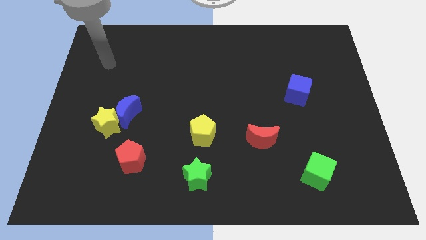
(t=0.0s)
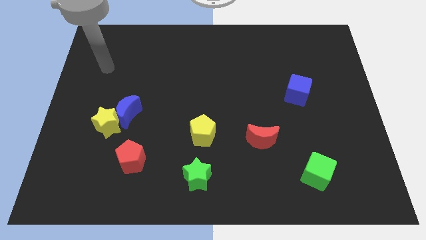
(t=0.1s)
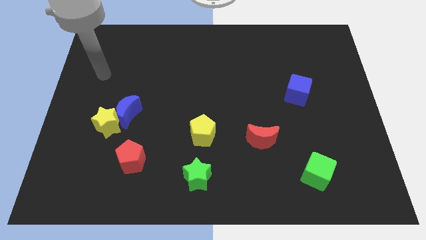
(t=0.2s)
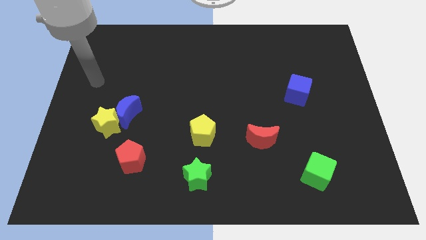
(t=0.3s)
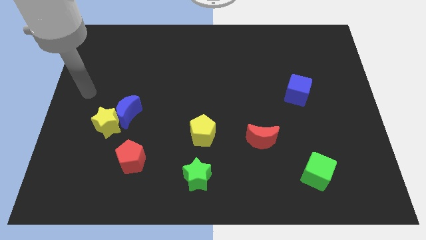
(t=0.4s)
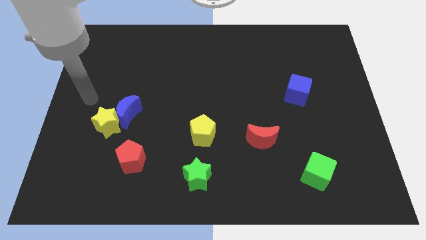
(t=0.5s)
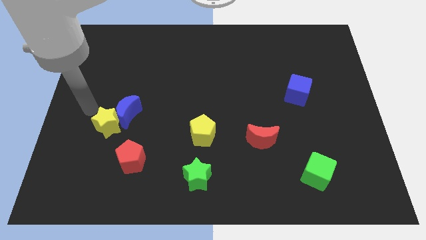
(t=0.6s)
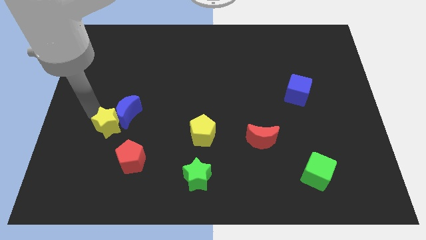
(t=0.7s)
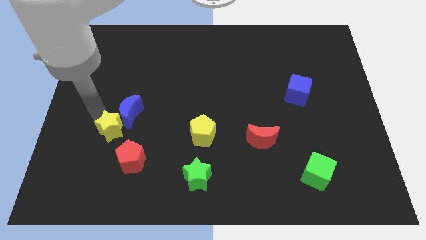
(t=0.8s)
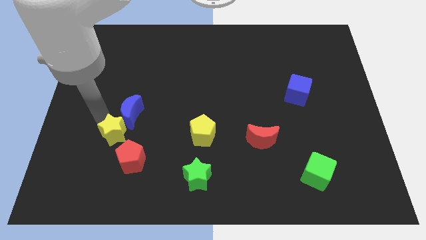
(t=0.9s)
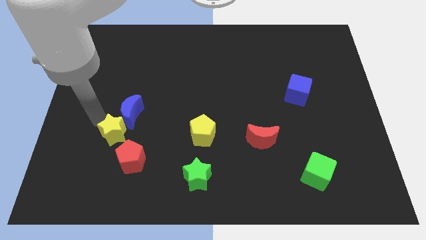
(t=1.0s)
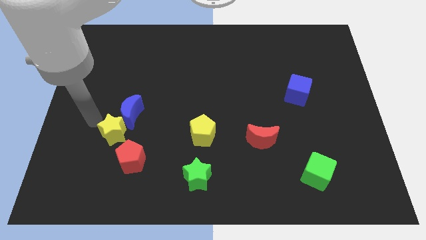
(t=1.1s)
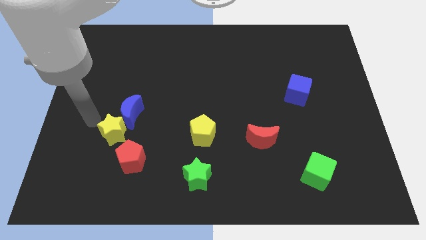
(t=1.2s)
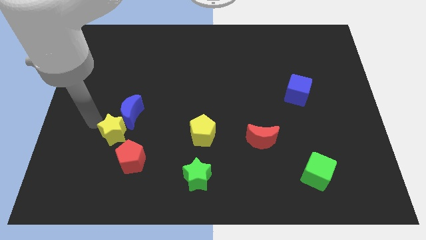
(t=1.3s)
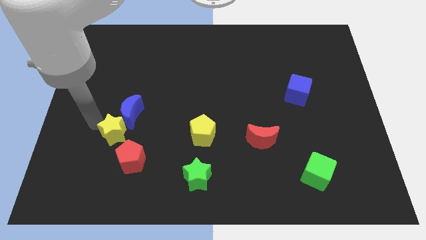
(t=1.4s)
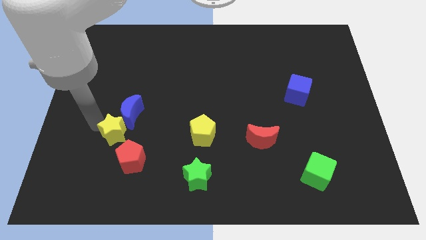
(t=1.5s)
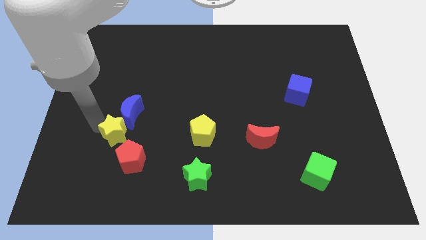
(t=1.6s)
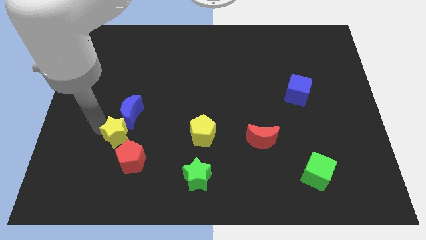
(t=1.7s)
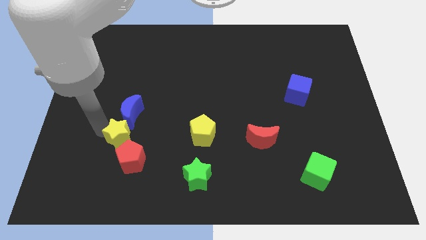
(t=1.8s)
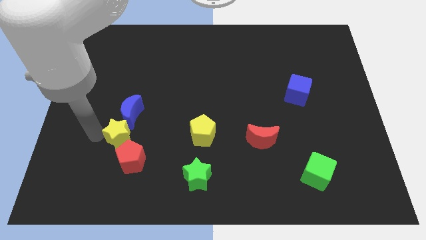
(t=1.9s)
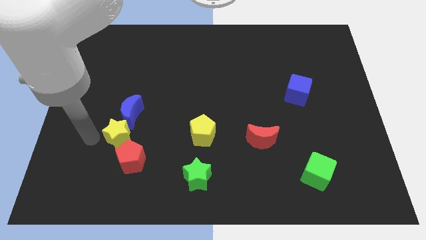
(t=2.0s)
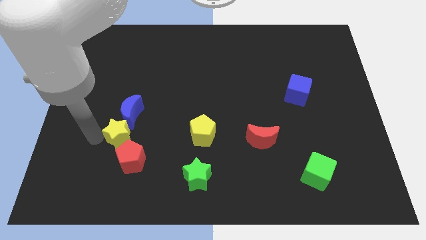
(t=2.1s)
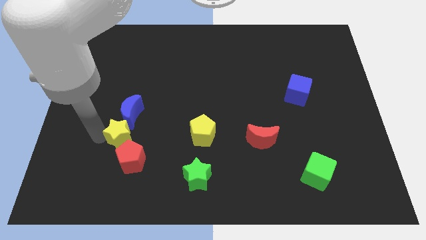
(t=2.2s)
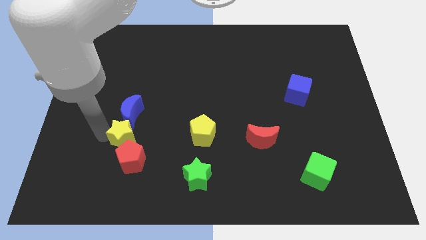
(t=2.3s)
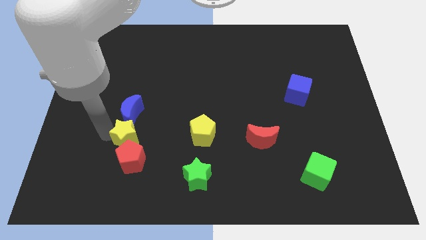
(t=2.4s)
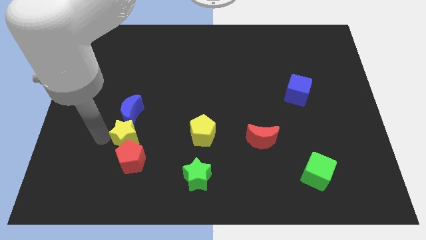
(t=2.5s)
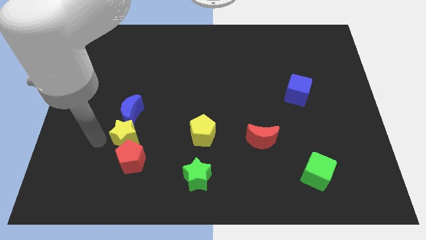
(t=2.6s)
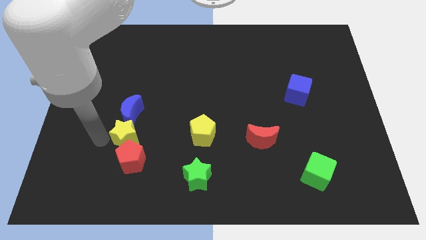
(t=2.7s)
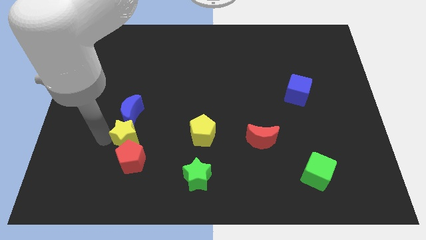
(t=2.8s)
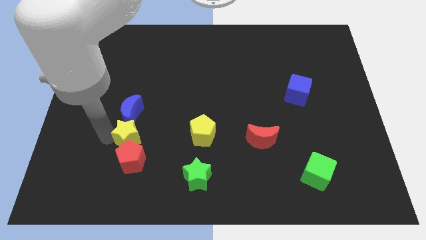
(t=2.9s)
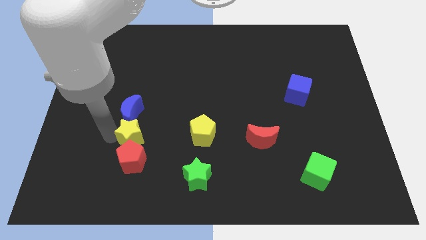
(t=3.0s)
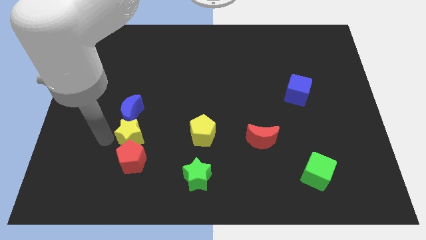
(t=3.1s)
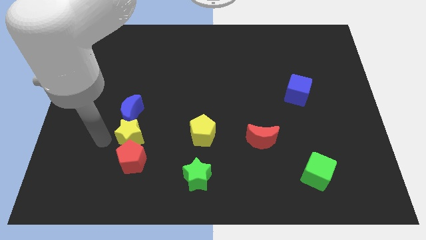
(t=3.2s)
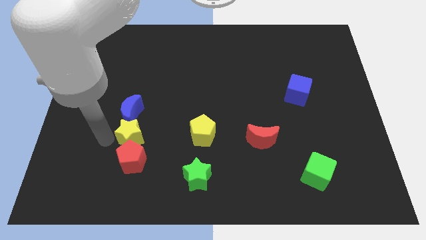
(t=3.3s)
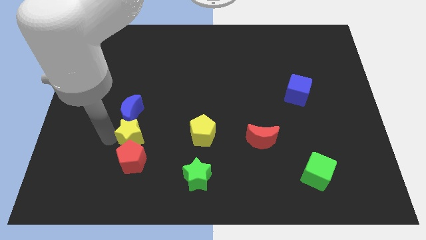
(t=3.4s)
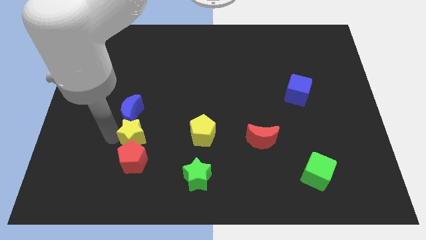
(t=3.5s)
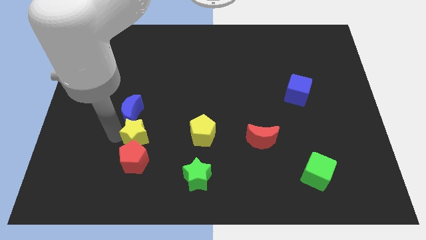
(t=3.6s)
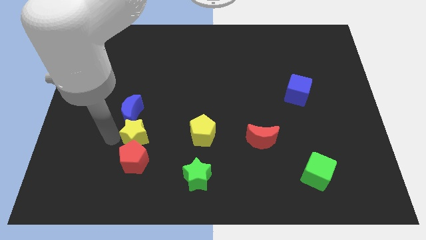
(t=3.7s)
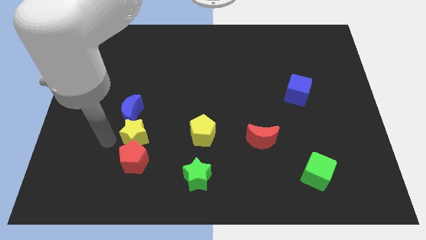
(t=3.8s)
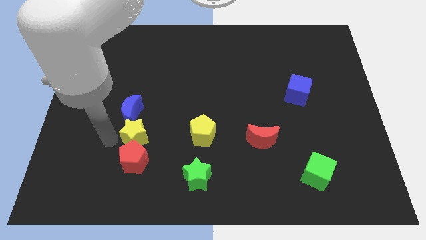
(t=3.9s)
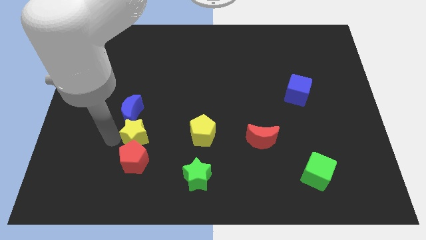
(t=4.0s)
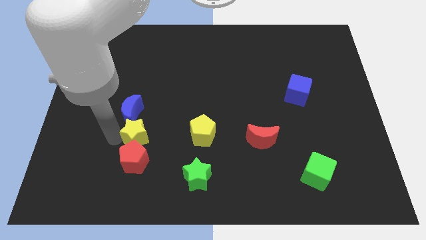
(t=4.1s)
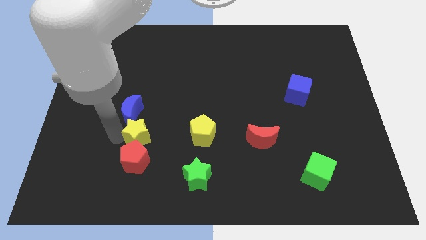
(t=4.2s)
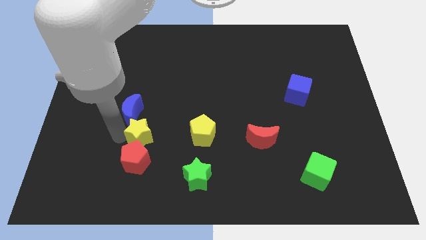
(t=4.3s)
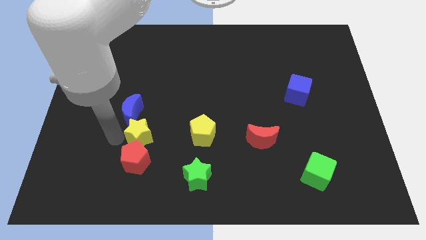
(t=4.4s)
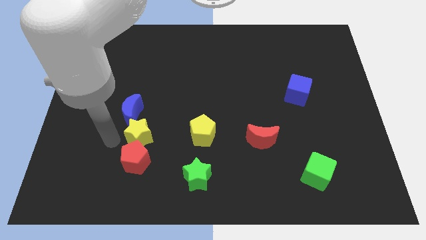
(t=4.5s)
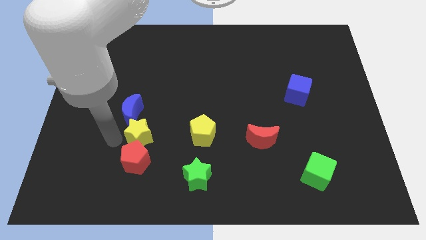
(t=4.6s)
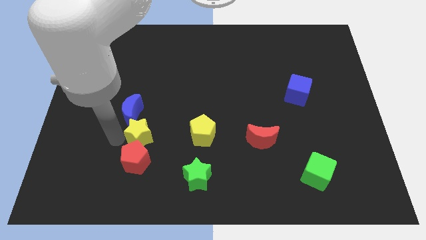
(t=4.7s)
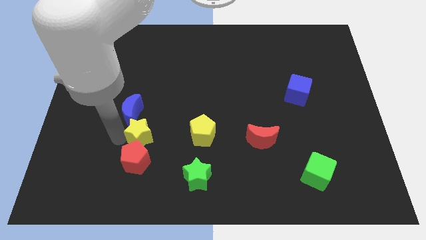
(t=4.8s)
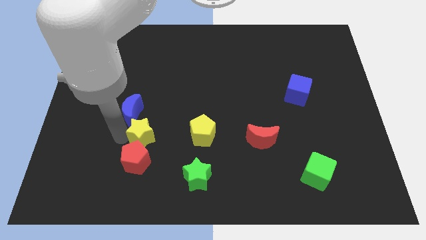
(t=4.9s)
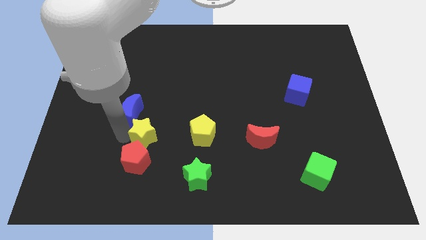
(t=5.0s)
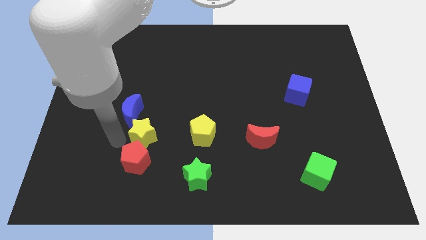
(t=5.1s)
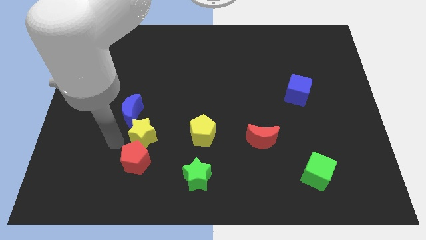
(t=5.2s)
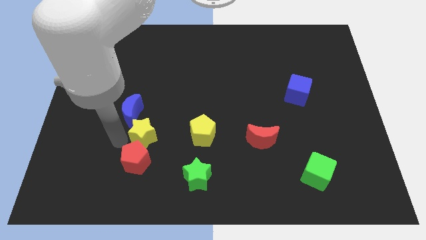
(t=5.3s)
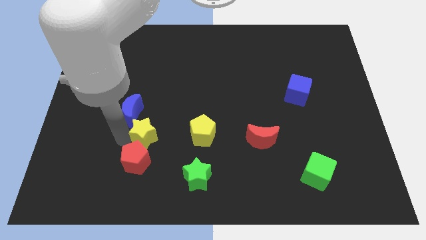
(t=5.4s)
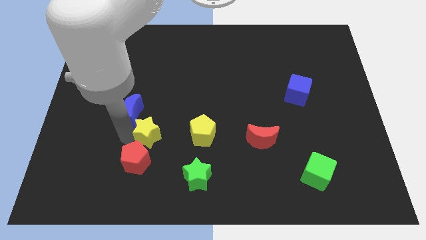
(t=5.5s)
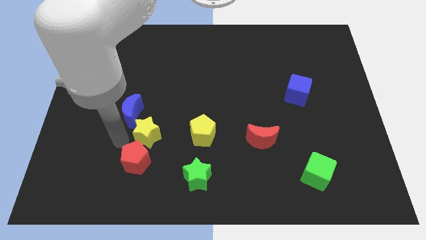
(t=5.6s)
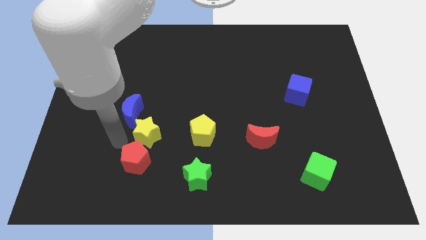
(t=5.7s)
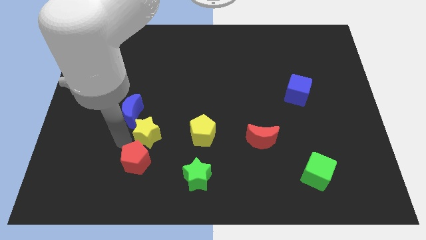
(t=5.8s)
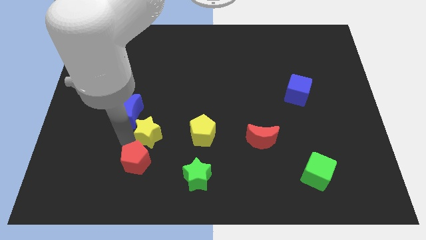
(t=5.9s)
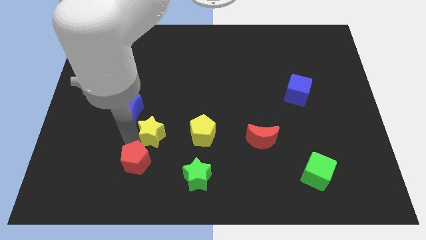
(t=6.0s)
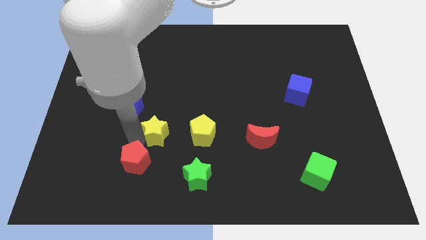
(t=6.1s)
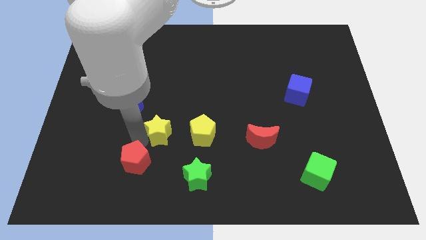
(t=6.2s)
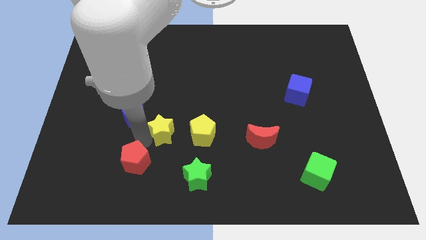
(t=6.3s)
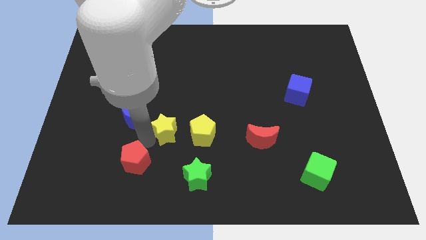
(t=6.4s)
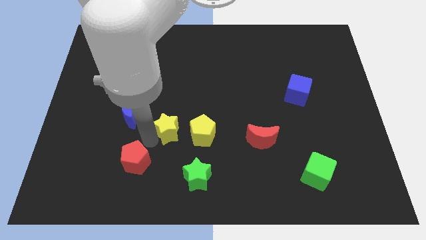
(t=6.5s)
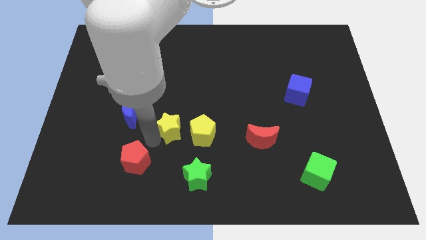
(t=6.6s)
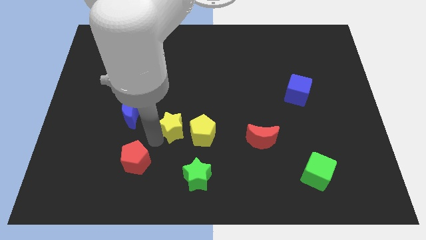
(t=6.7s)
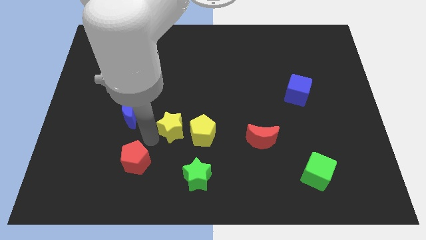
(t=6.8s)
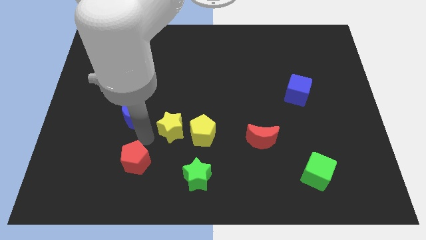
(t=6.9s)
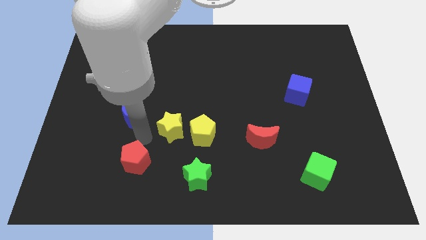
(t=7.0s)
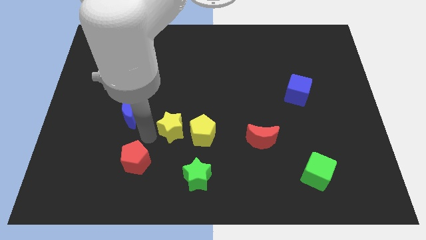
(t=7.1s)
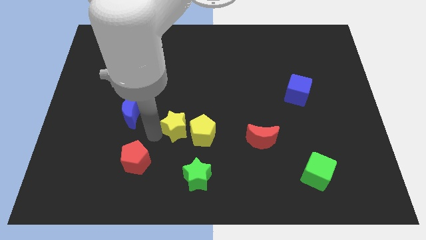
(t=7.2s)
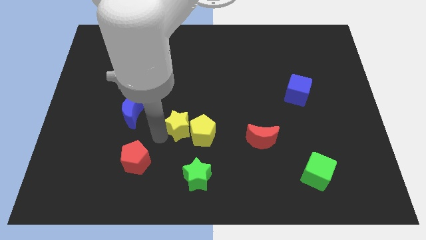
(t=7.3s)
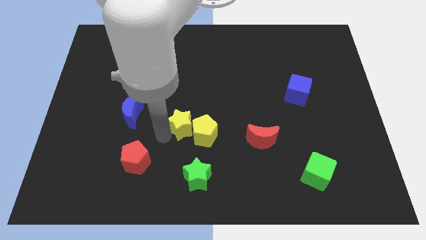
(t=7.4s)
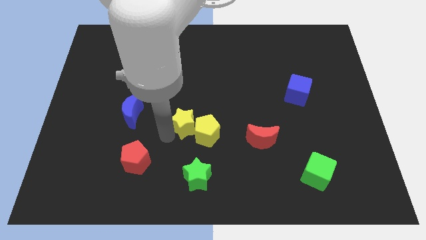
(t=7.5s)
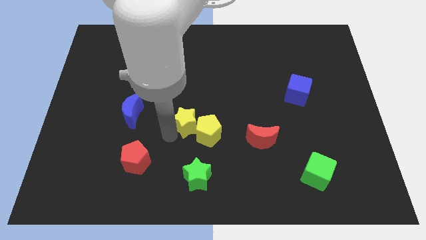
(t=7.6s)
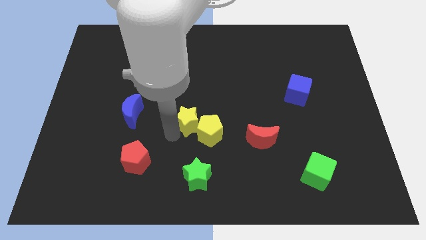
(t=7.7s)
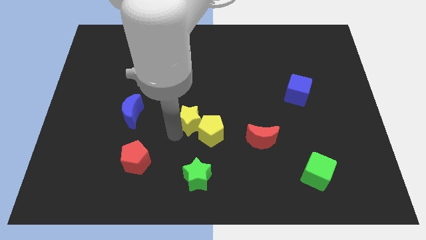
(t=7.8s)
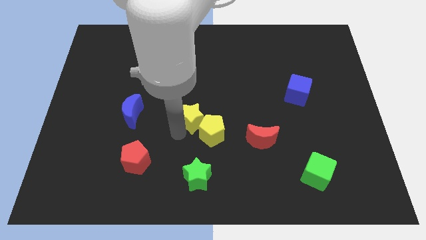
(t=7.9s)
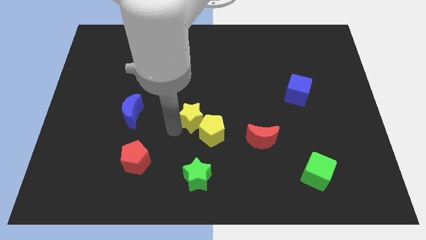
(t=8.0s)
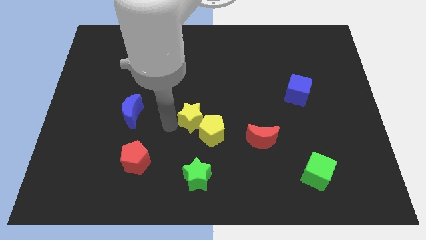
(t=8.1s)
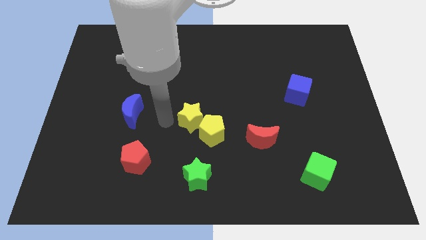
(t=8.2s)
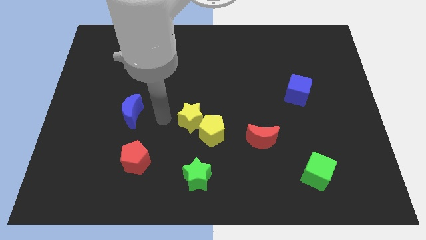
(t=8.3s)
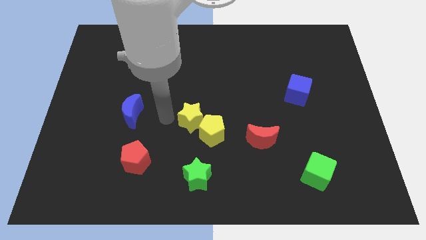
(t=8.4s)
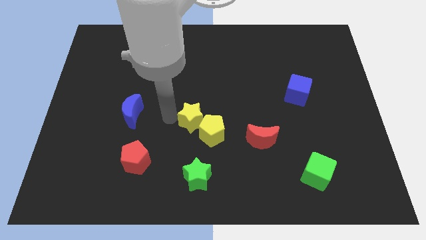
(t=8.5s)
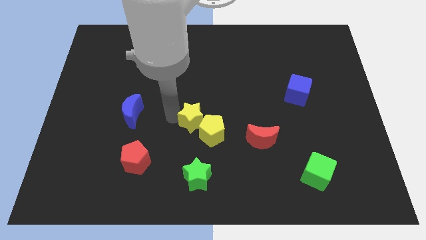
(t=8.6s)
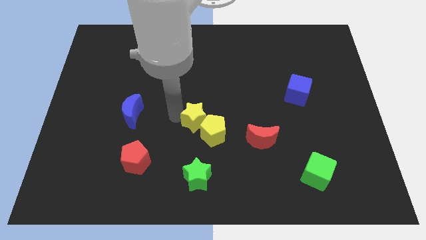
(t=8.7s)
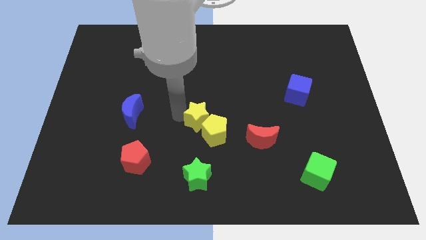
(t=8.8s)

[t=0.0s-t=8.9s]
move the yellow star to the right
